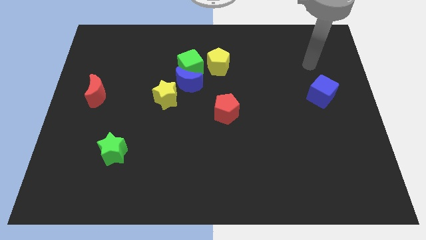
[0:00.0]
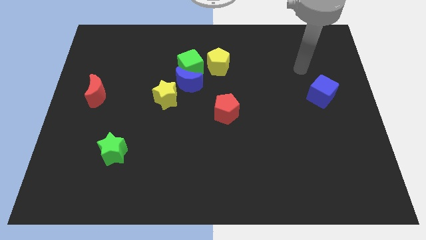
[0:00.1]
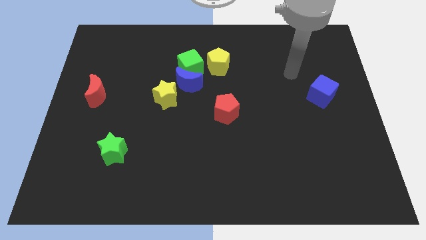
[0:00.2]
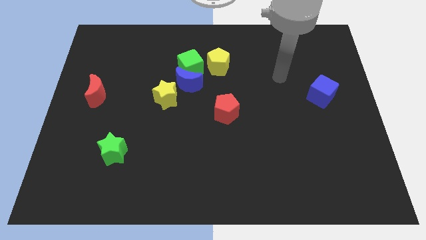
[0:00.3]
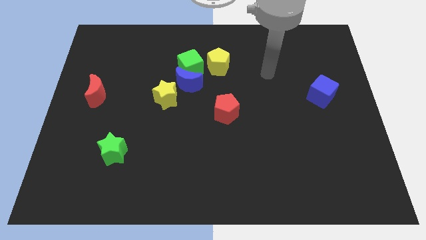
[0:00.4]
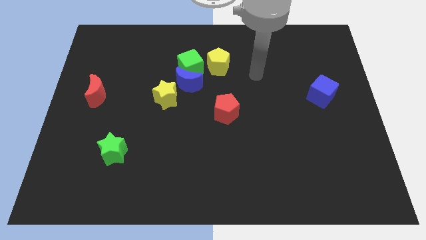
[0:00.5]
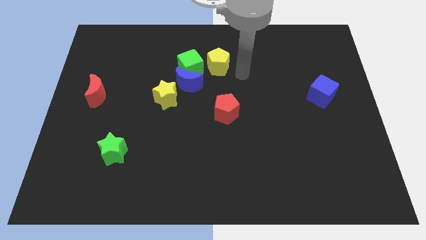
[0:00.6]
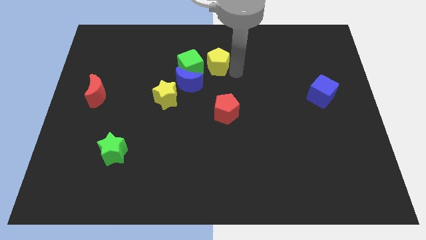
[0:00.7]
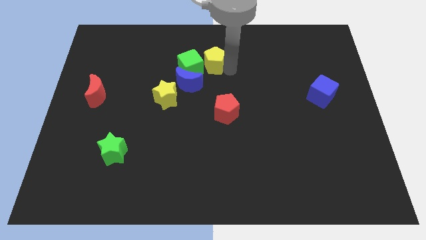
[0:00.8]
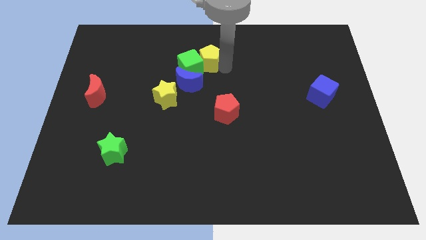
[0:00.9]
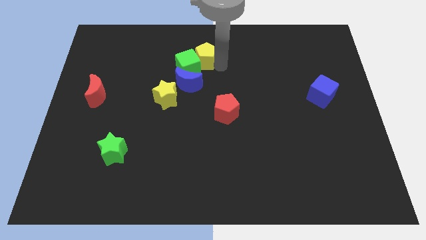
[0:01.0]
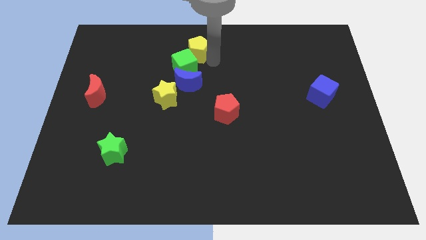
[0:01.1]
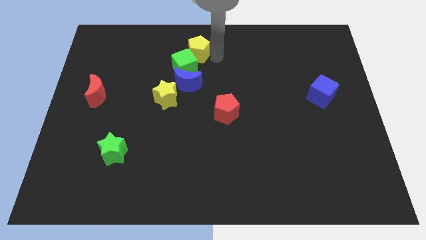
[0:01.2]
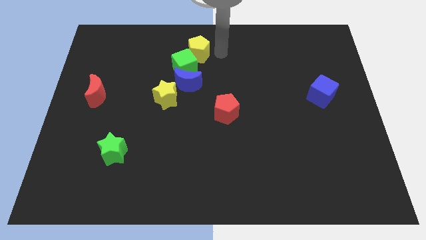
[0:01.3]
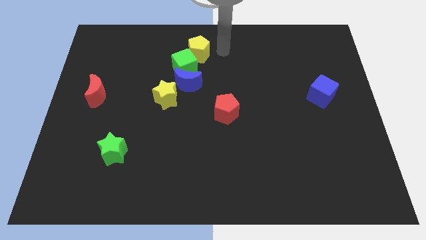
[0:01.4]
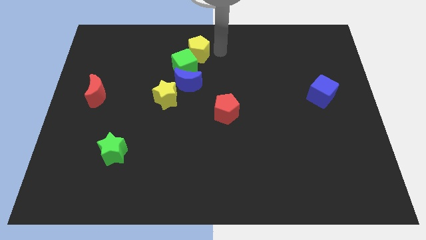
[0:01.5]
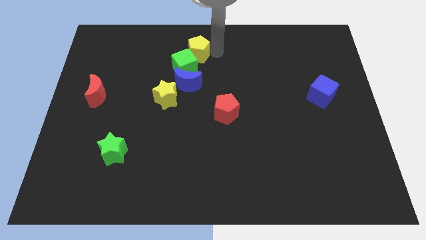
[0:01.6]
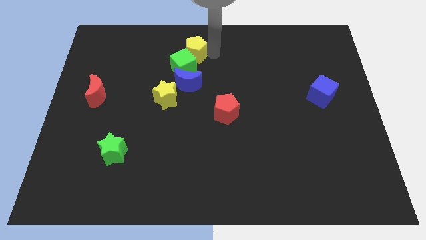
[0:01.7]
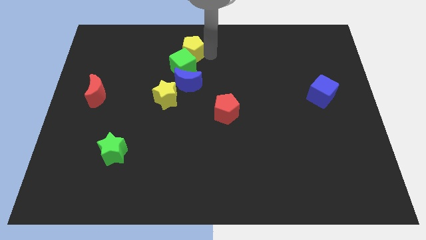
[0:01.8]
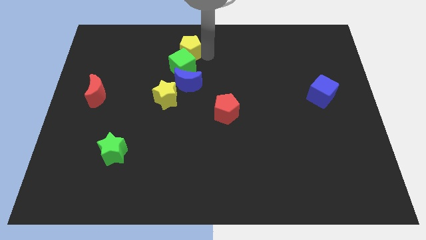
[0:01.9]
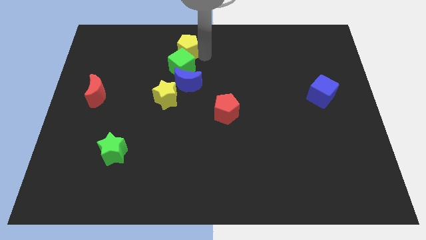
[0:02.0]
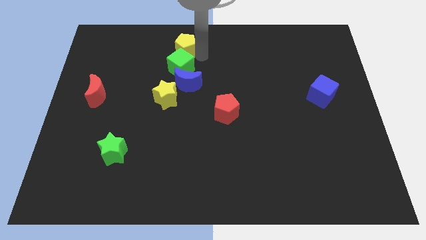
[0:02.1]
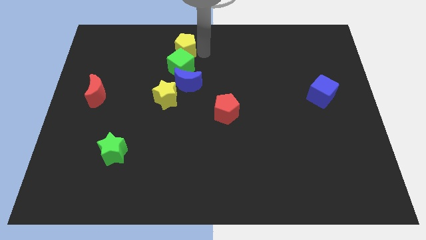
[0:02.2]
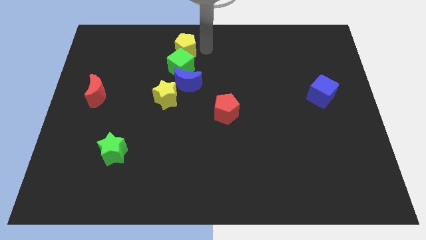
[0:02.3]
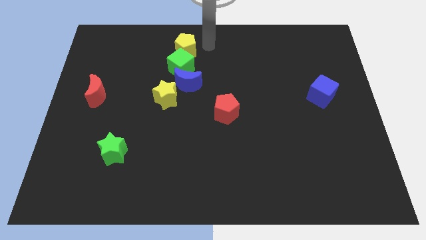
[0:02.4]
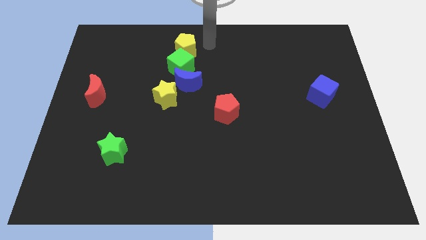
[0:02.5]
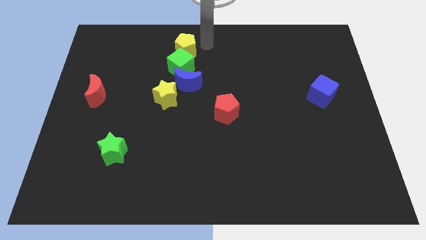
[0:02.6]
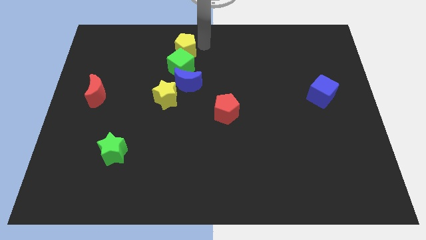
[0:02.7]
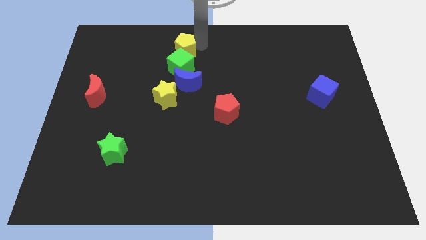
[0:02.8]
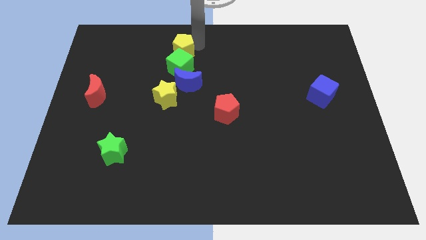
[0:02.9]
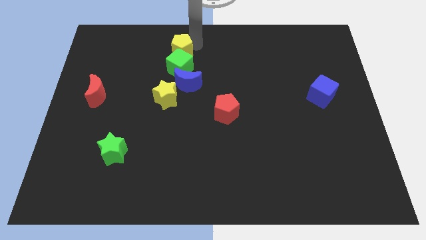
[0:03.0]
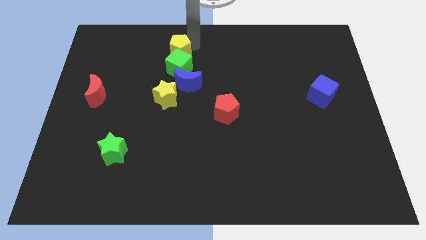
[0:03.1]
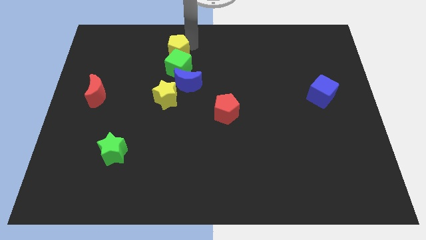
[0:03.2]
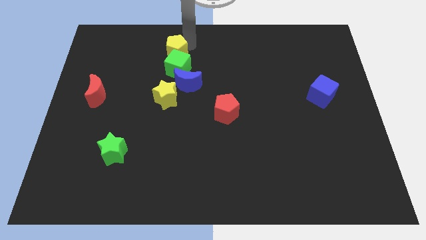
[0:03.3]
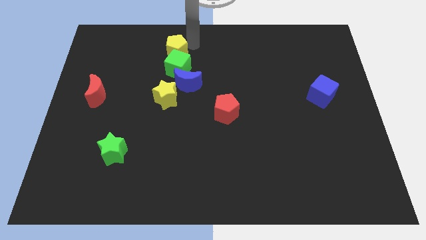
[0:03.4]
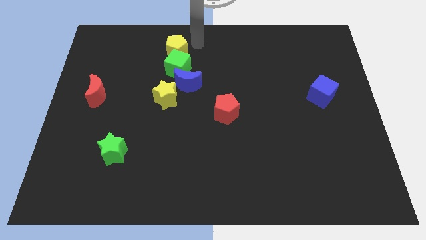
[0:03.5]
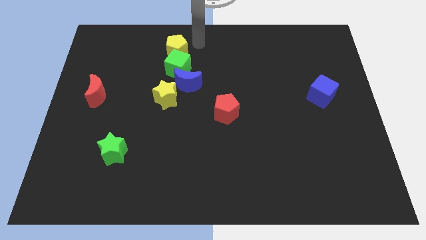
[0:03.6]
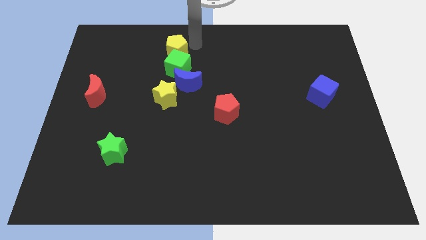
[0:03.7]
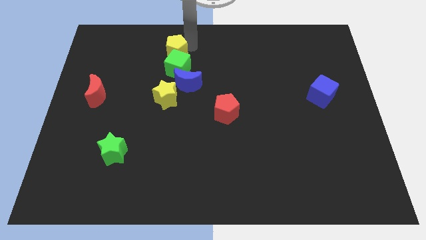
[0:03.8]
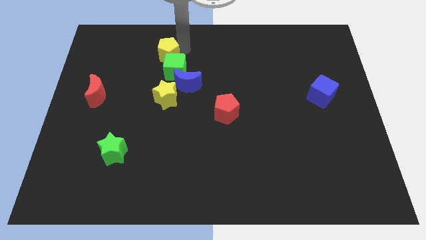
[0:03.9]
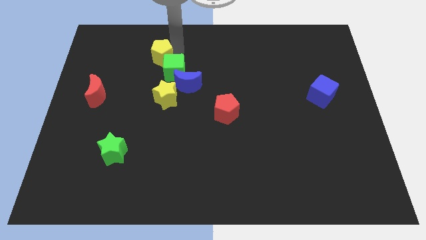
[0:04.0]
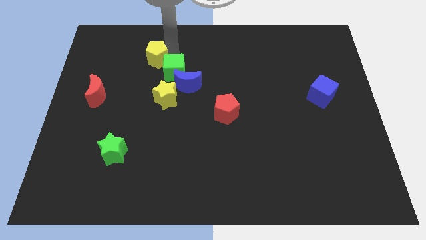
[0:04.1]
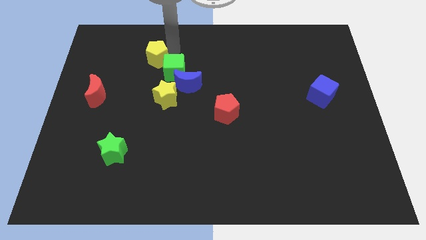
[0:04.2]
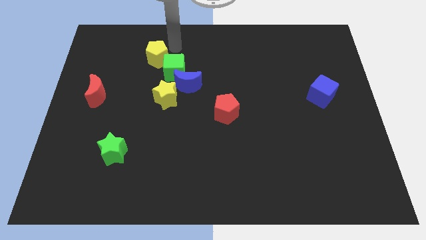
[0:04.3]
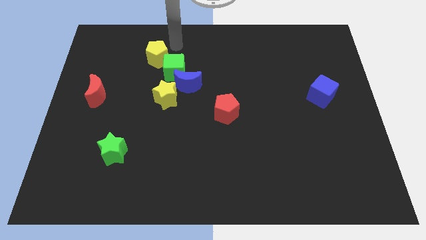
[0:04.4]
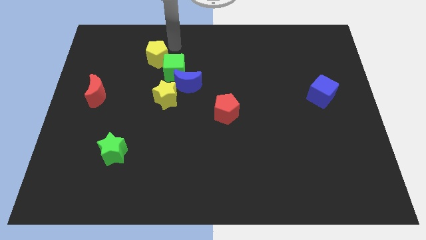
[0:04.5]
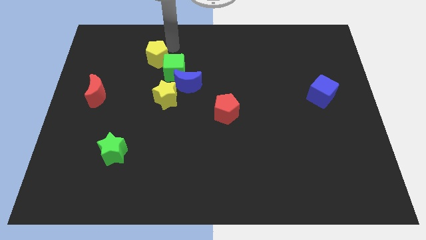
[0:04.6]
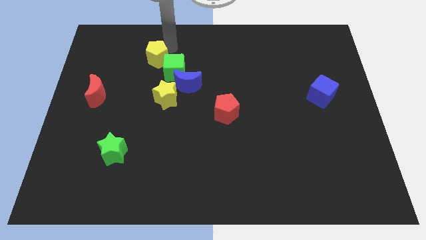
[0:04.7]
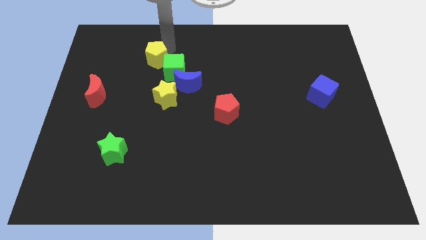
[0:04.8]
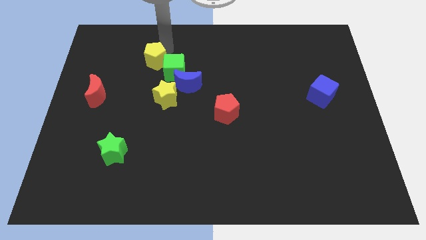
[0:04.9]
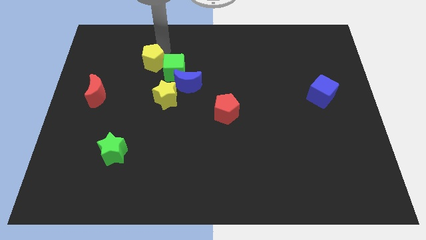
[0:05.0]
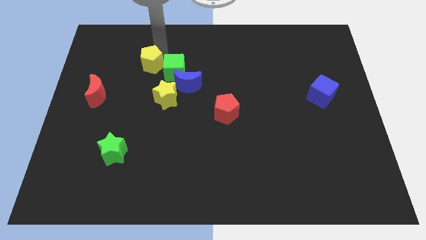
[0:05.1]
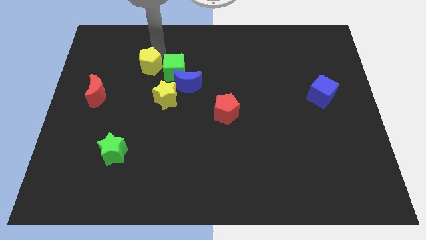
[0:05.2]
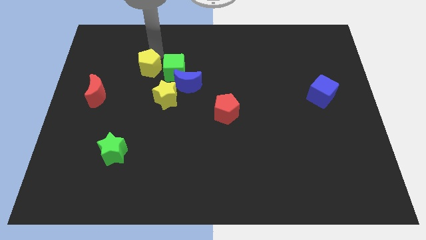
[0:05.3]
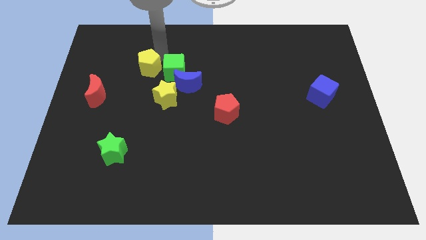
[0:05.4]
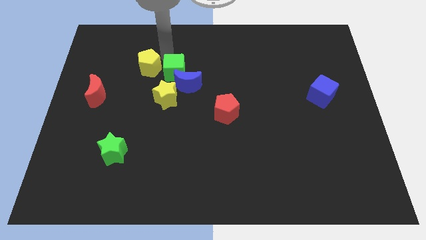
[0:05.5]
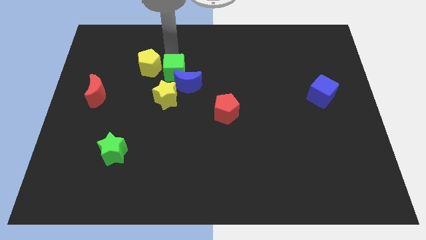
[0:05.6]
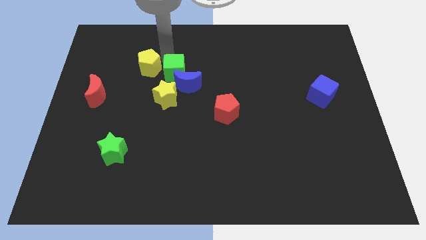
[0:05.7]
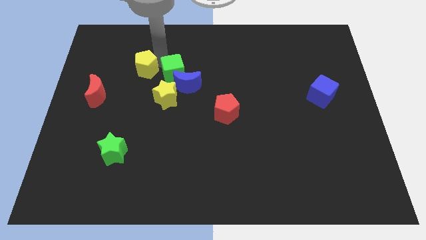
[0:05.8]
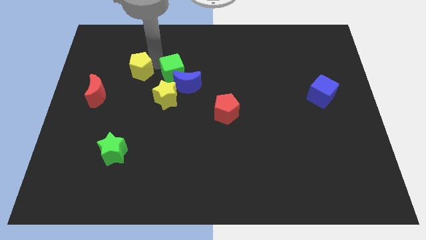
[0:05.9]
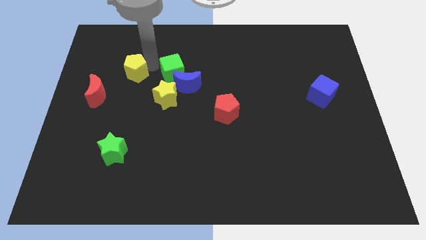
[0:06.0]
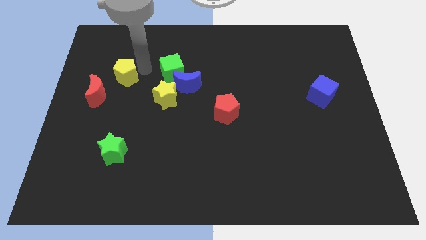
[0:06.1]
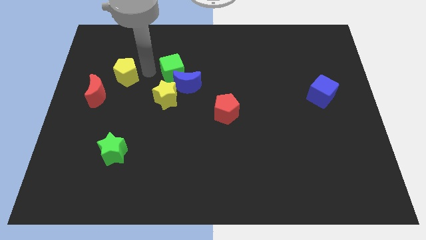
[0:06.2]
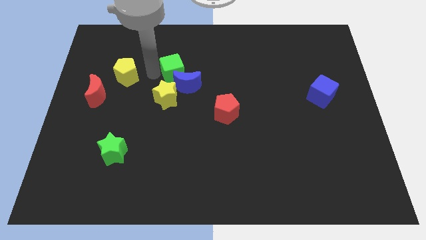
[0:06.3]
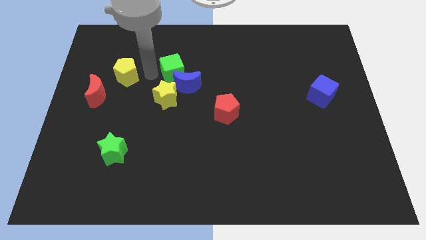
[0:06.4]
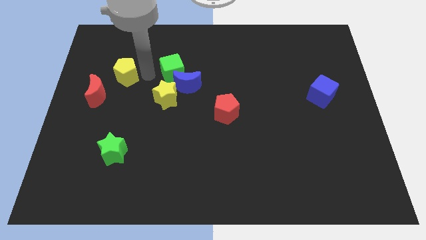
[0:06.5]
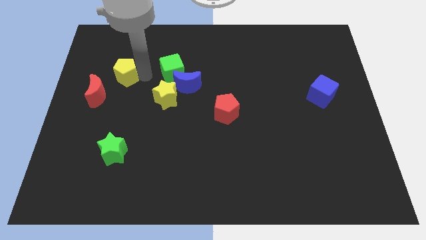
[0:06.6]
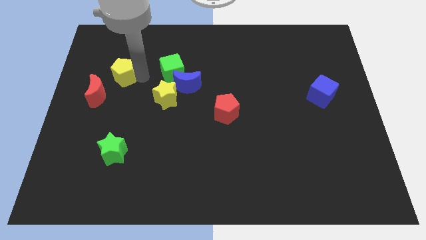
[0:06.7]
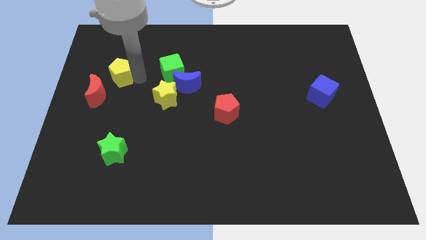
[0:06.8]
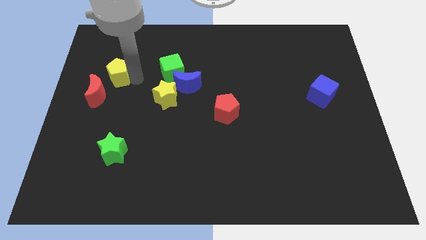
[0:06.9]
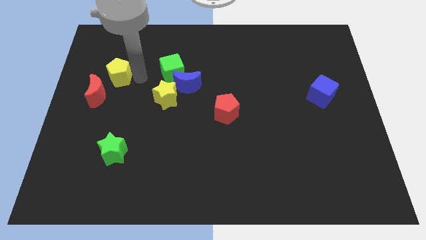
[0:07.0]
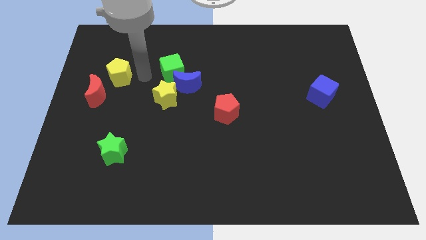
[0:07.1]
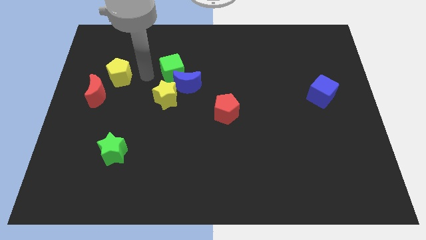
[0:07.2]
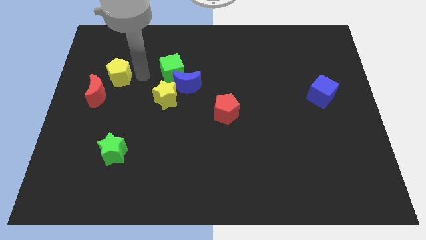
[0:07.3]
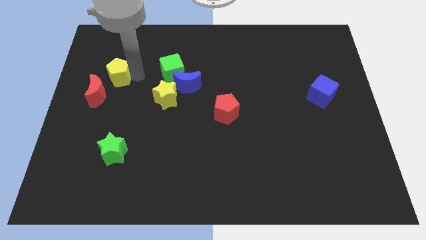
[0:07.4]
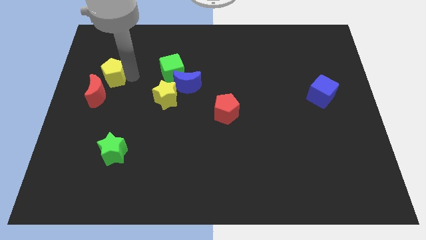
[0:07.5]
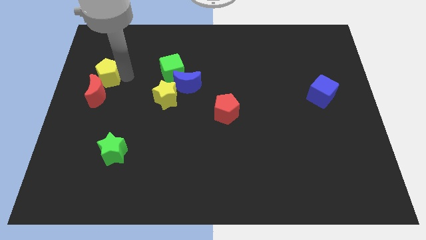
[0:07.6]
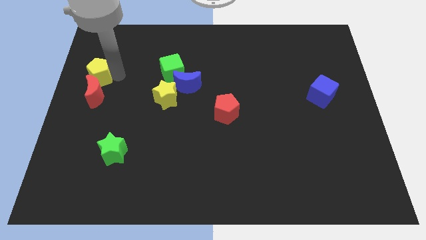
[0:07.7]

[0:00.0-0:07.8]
put the yellow pentagon to the left side of the board
